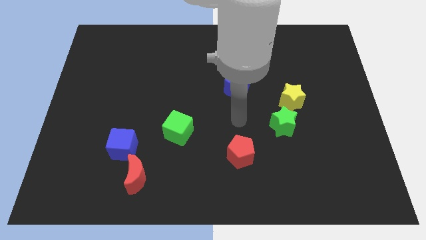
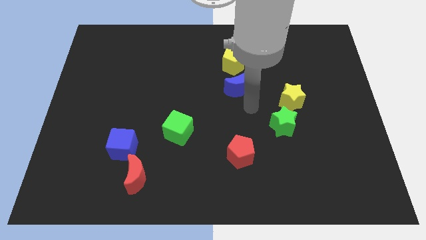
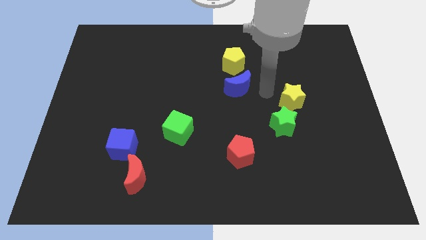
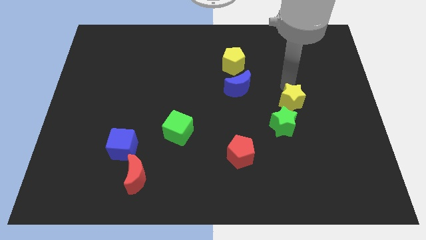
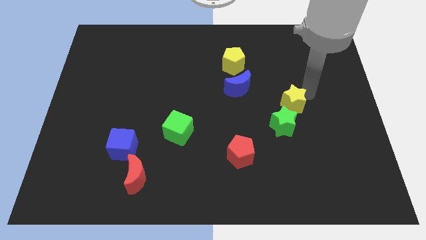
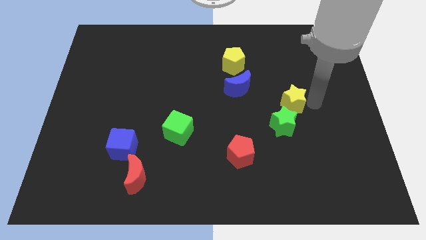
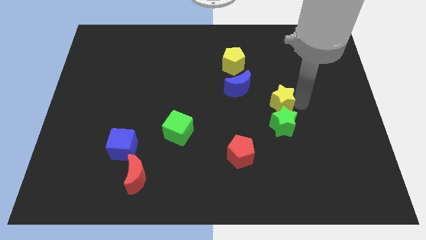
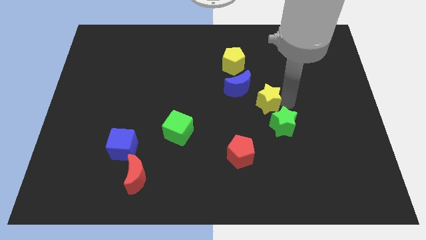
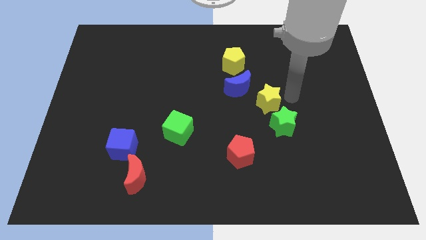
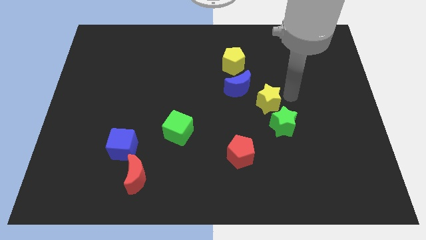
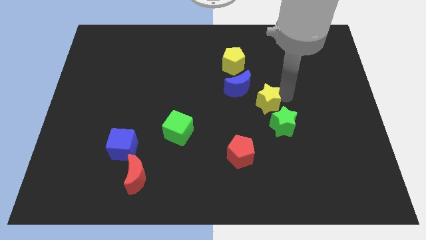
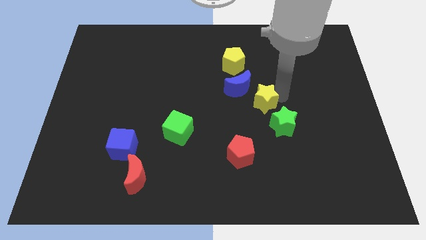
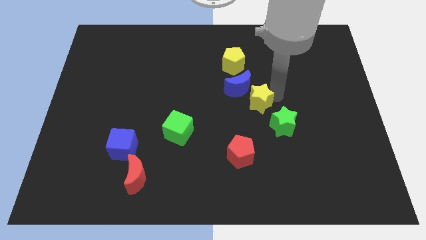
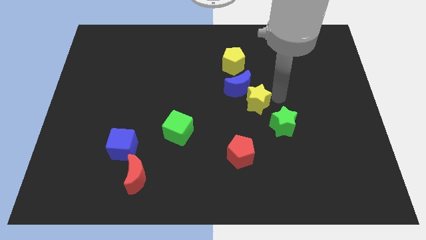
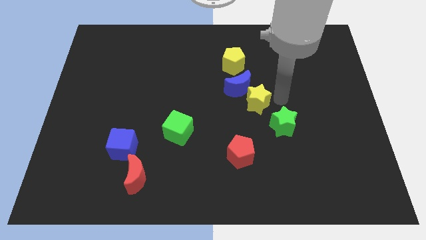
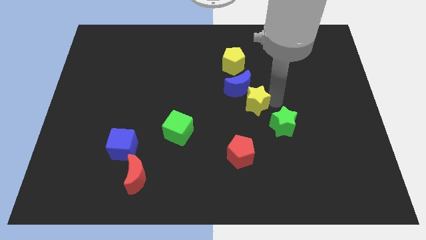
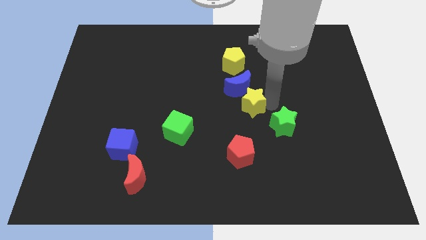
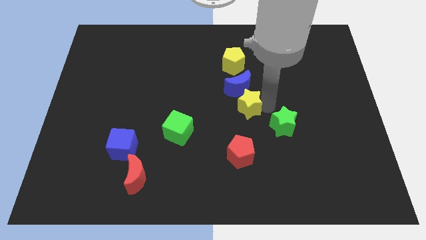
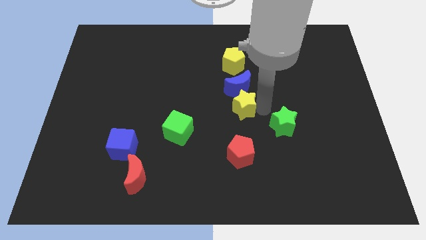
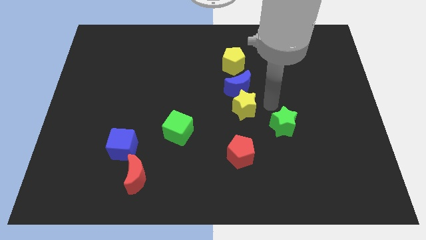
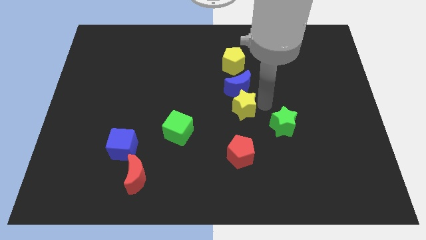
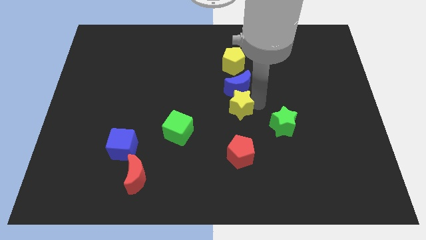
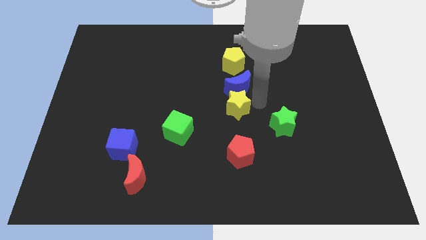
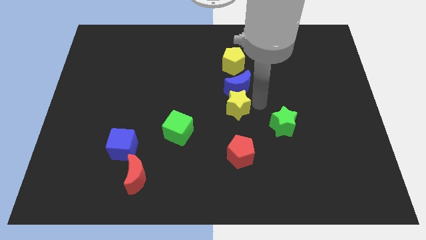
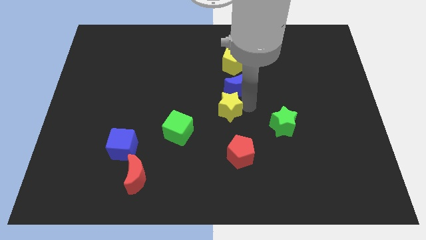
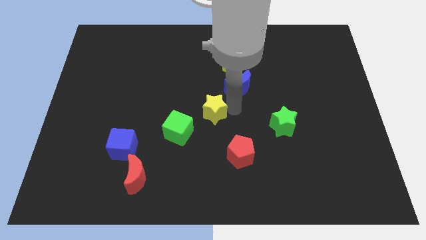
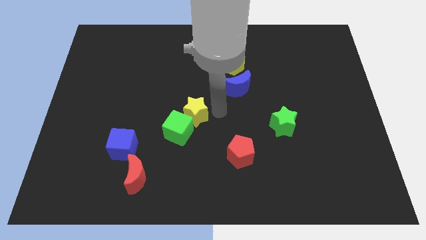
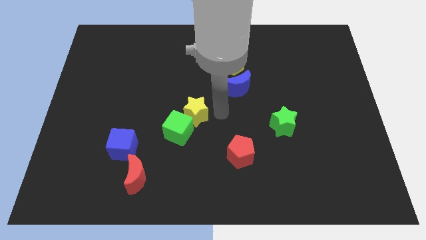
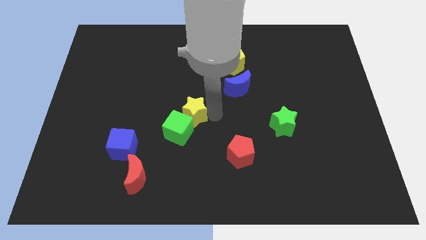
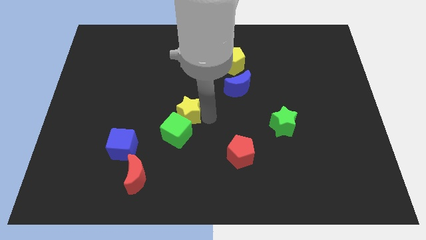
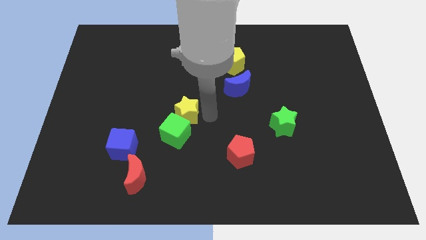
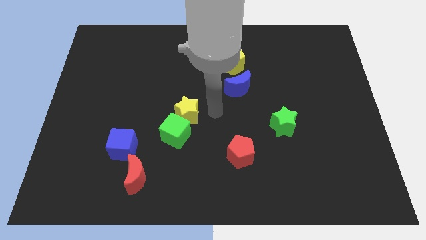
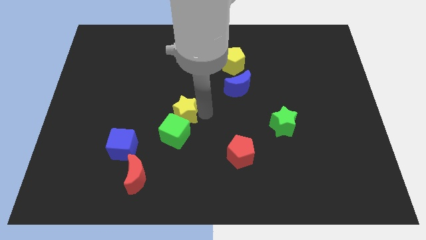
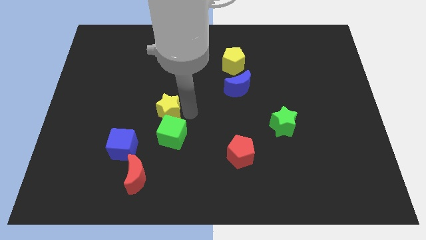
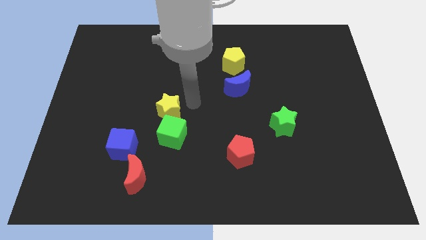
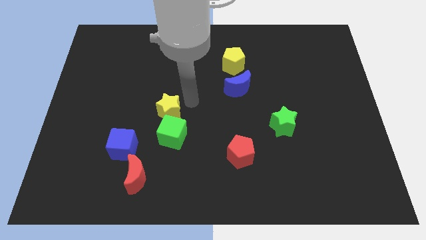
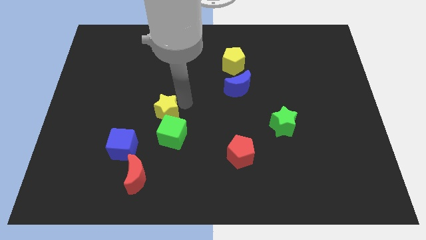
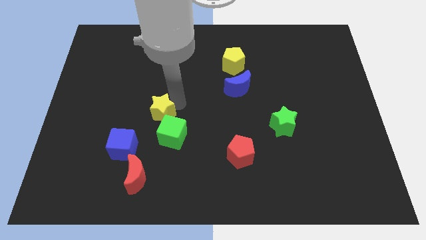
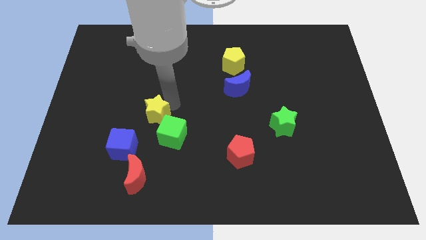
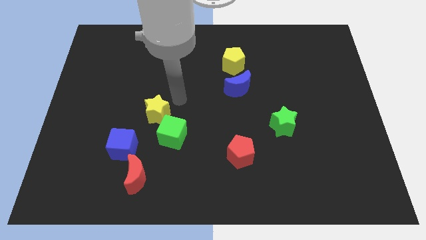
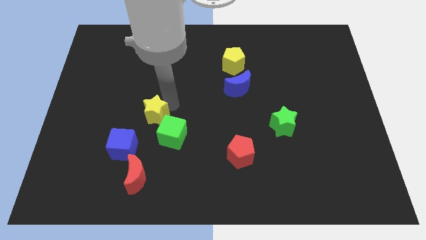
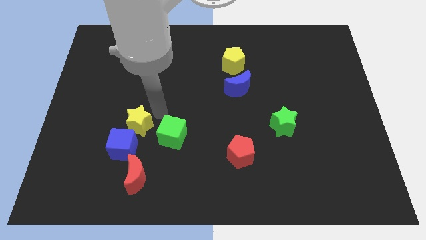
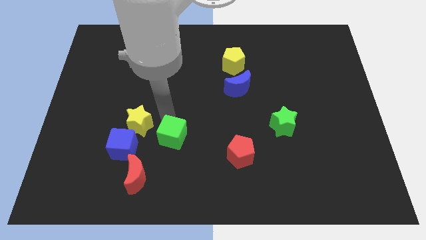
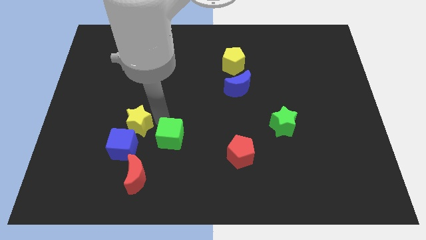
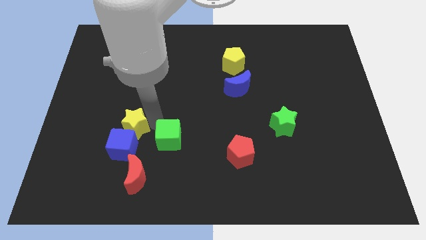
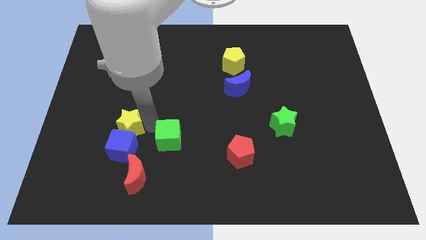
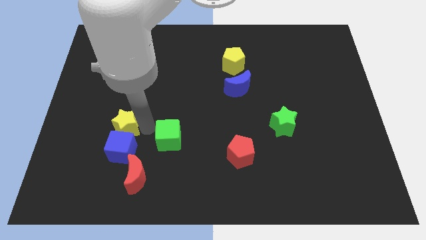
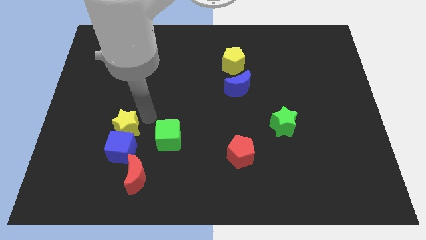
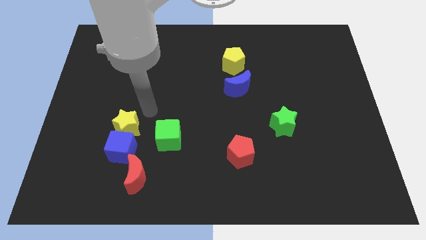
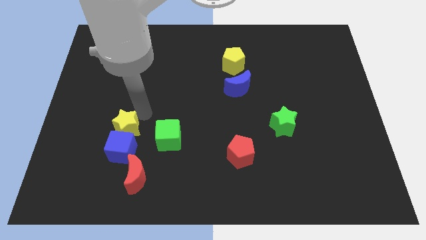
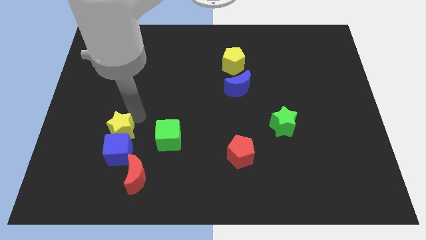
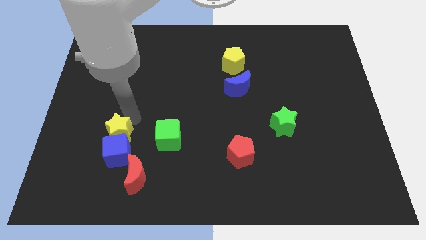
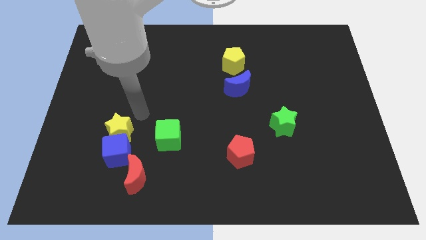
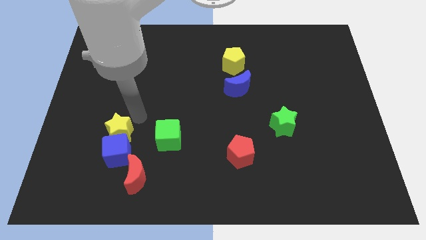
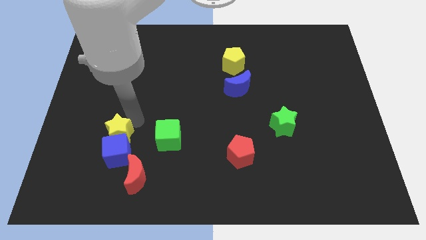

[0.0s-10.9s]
move the yellow star diagonally up and to the left of the red moon

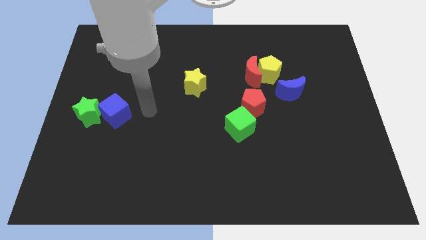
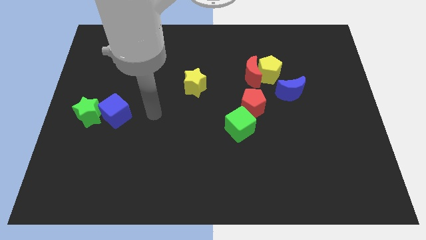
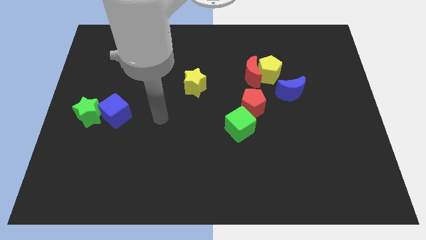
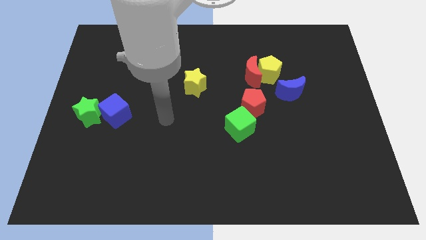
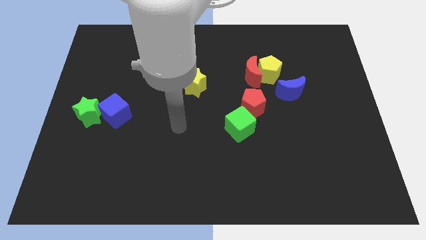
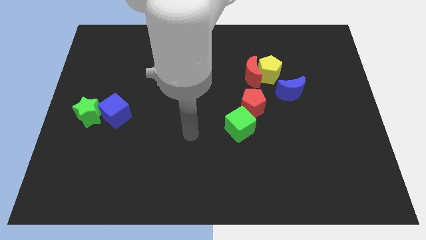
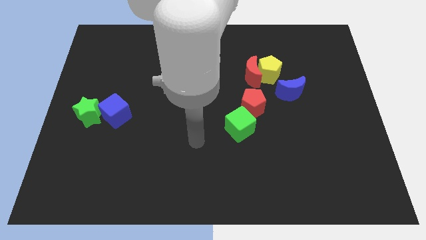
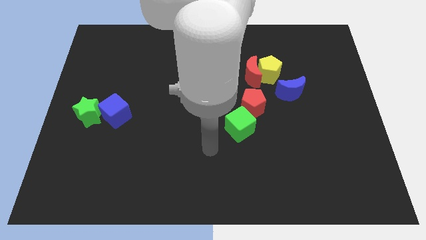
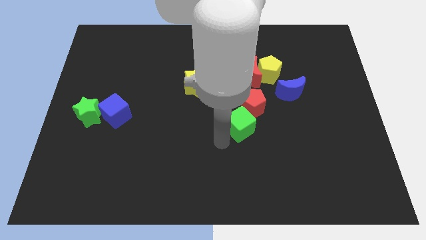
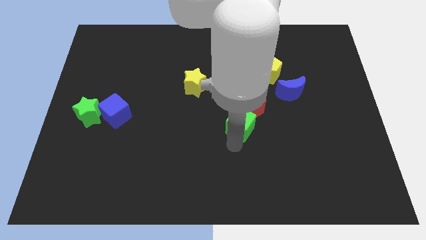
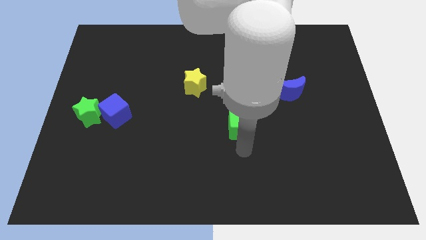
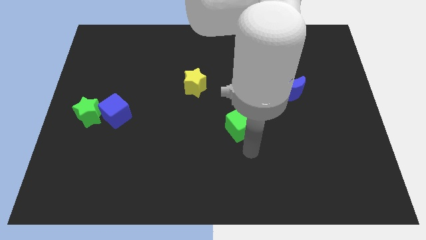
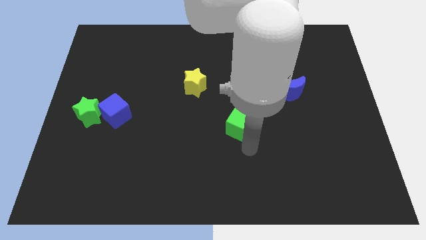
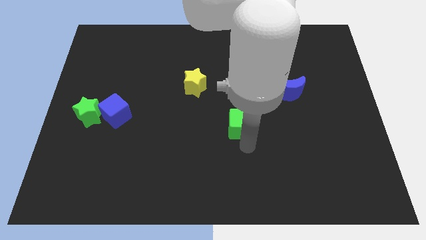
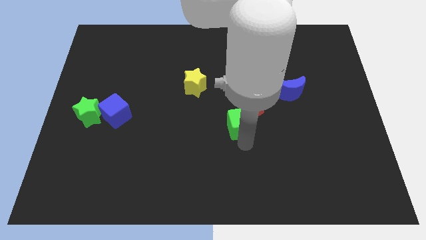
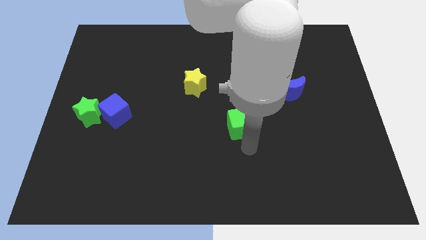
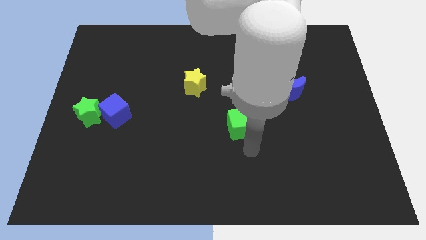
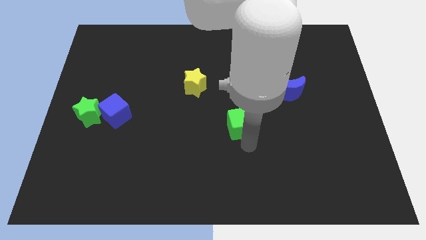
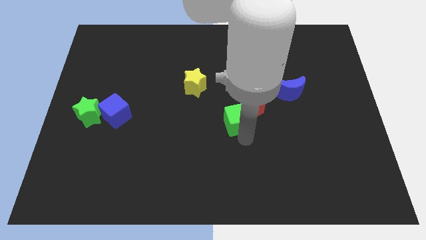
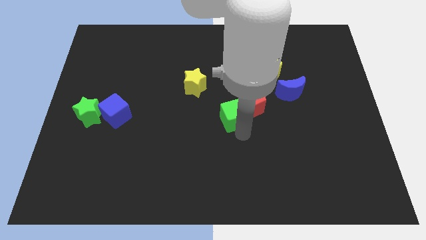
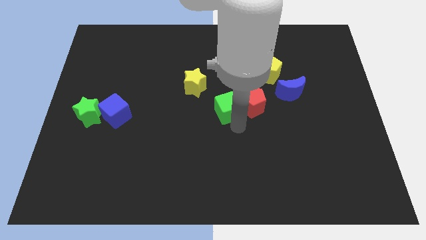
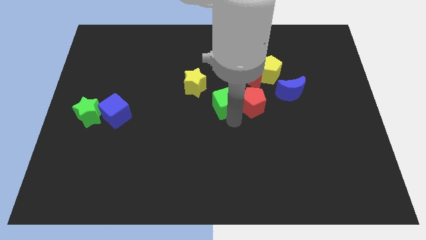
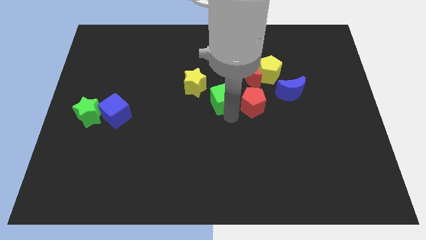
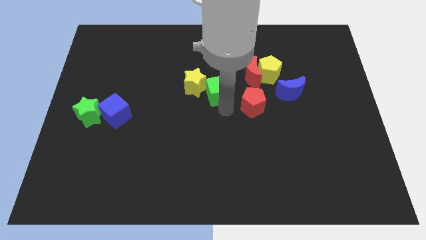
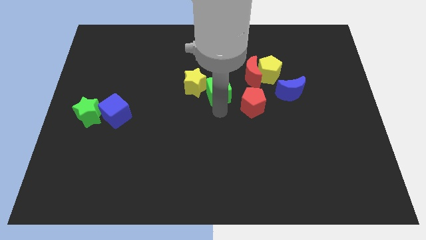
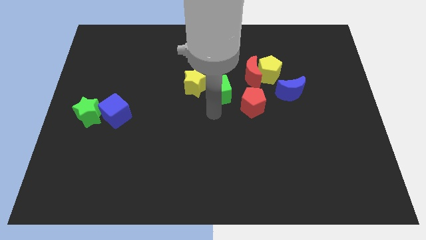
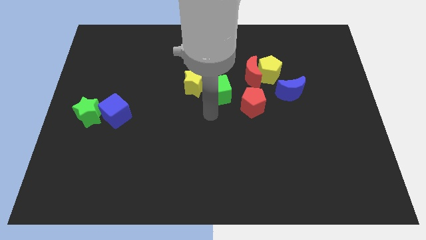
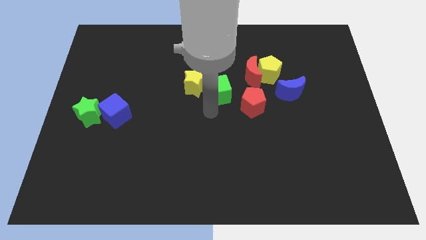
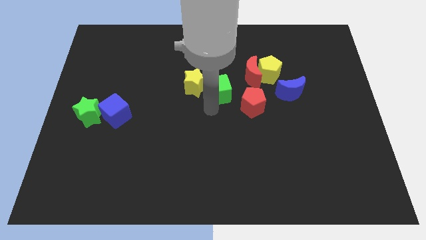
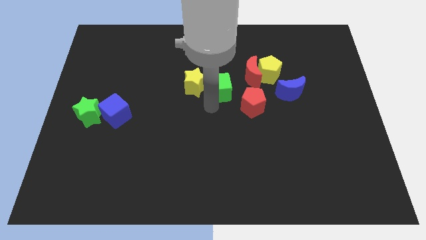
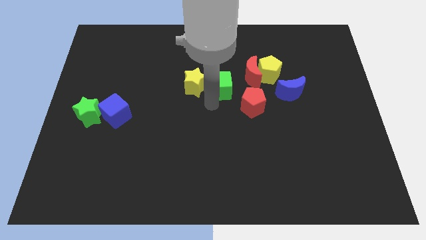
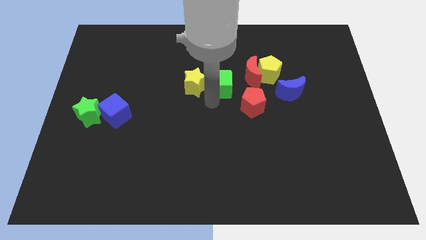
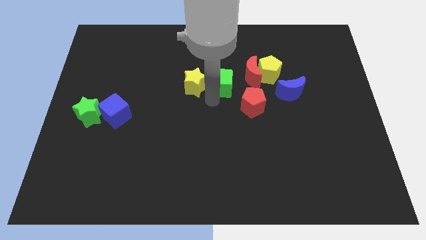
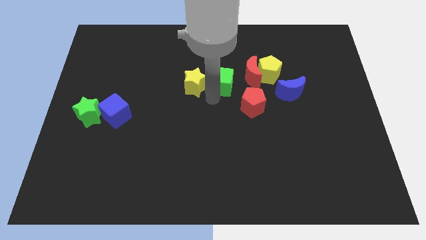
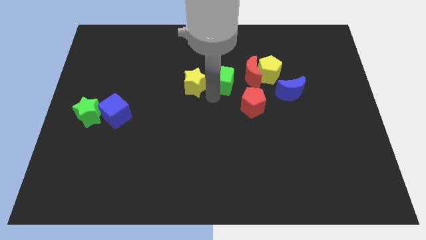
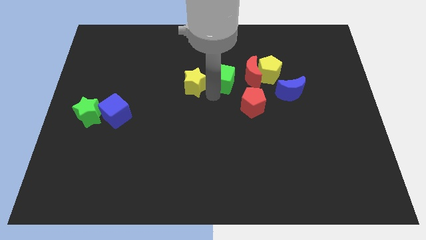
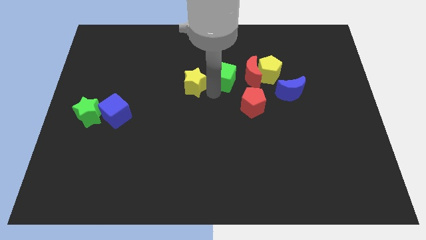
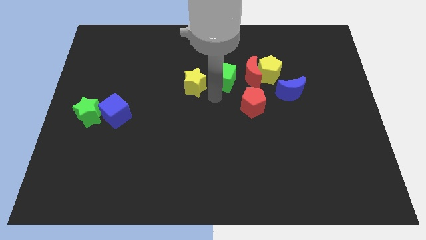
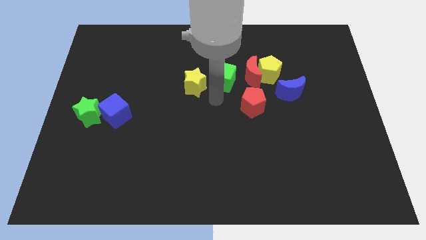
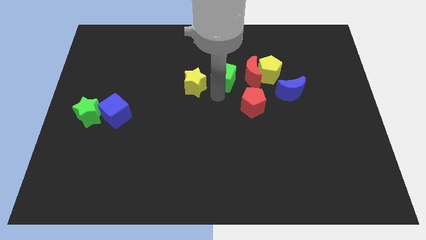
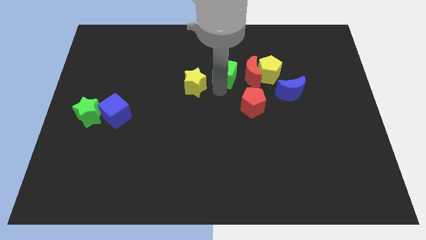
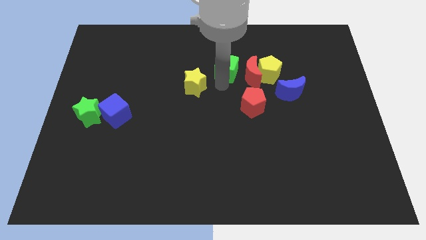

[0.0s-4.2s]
push the green cube diagonally up and to the left of the red moon
